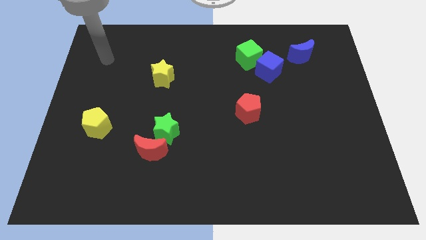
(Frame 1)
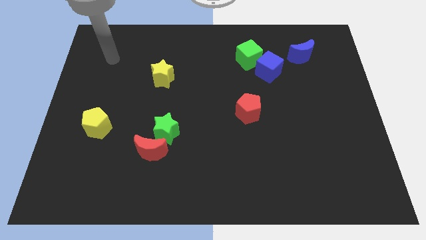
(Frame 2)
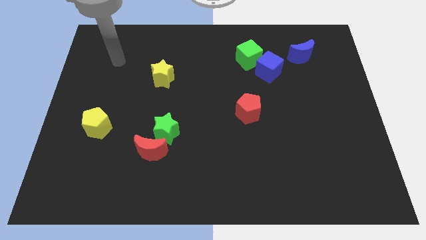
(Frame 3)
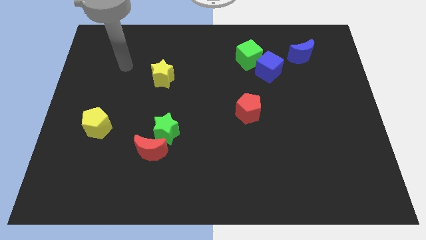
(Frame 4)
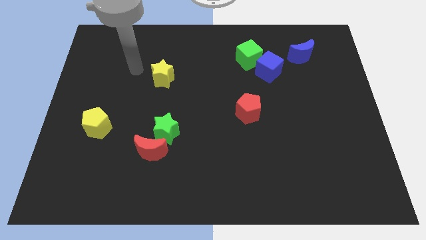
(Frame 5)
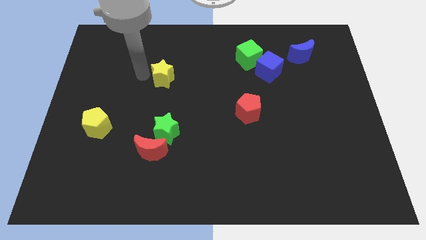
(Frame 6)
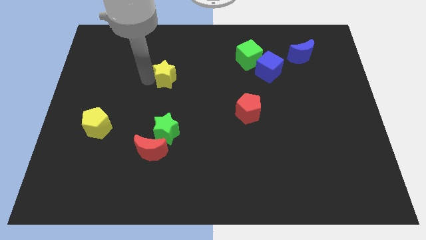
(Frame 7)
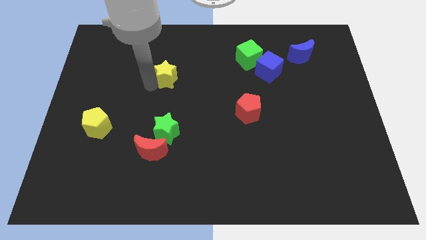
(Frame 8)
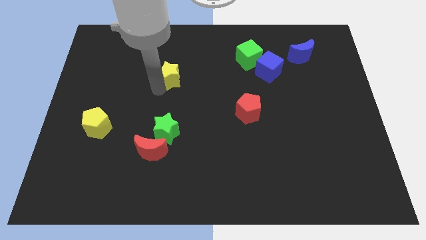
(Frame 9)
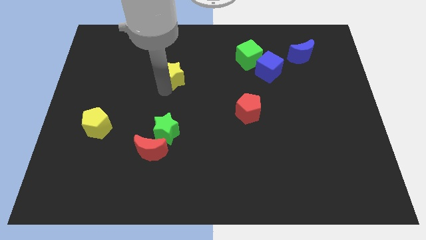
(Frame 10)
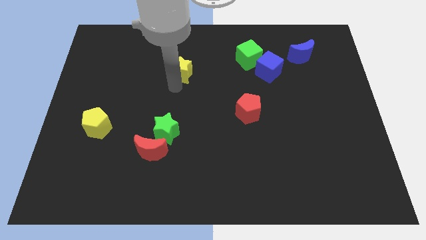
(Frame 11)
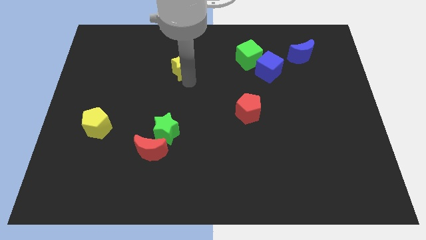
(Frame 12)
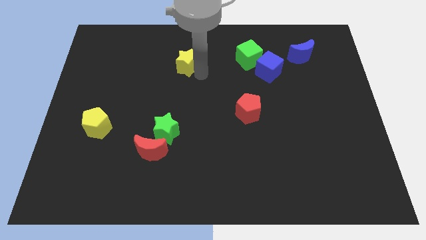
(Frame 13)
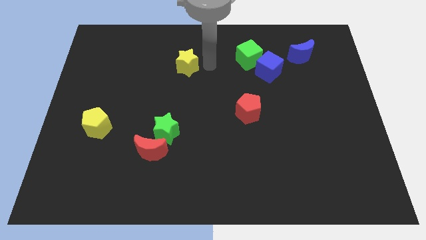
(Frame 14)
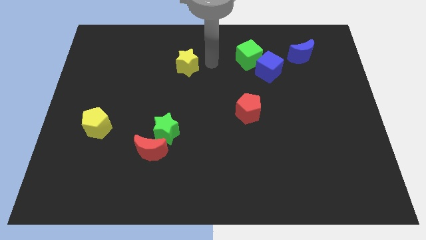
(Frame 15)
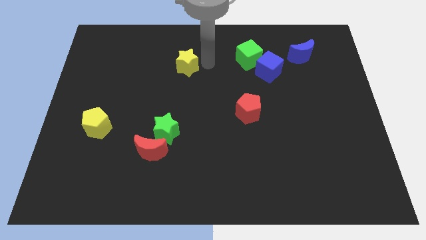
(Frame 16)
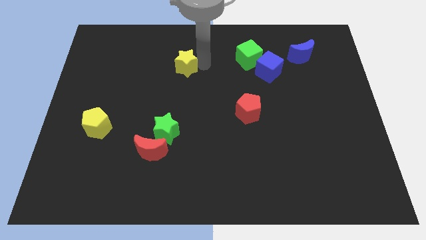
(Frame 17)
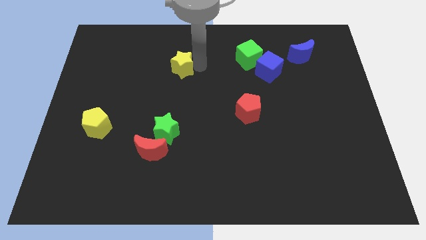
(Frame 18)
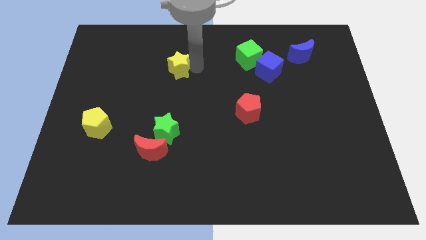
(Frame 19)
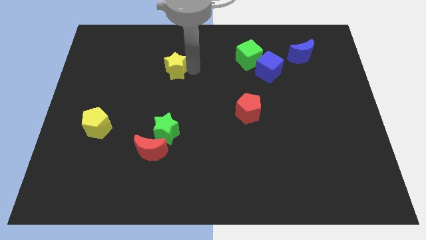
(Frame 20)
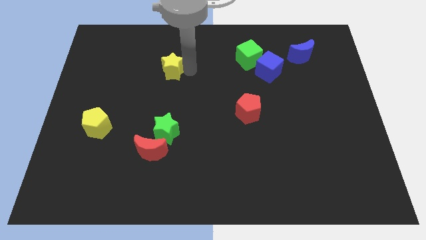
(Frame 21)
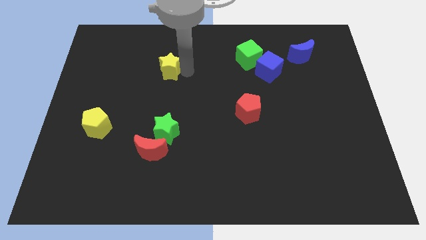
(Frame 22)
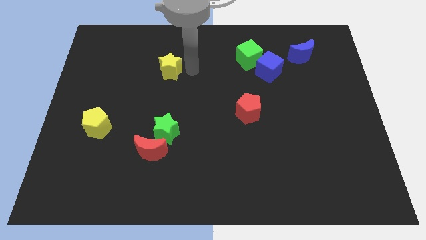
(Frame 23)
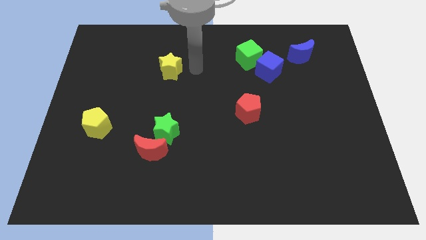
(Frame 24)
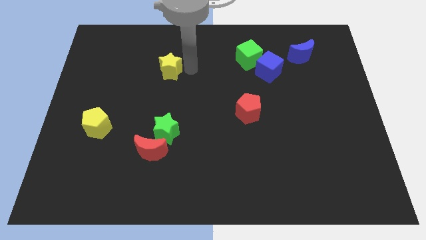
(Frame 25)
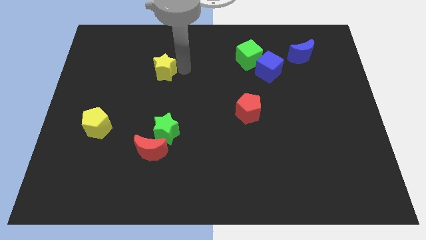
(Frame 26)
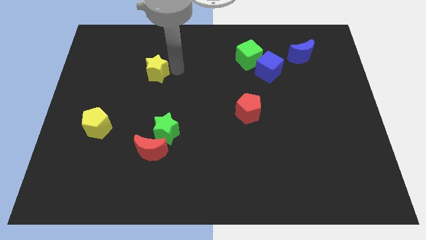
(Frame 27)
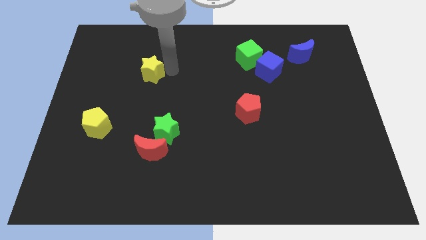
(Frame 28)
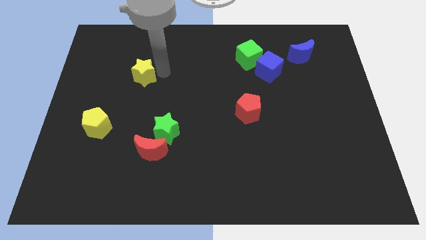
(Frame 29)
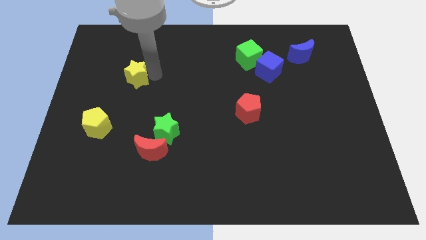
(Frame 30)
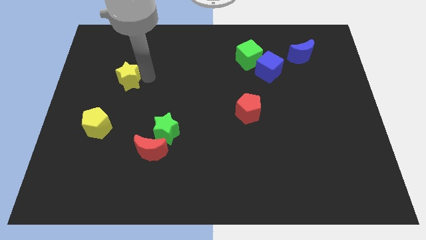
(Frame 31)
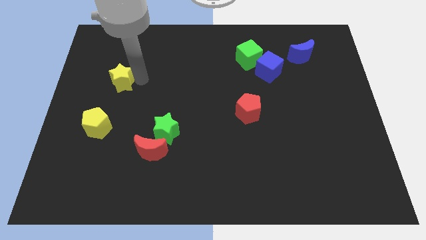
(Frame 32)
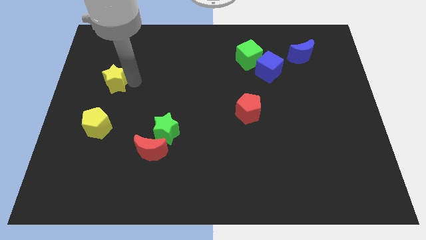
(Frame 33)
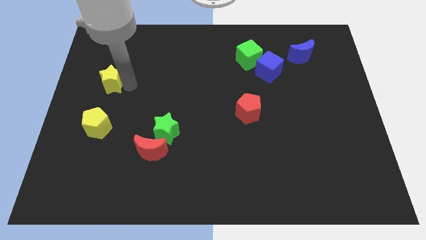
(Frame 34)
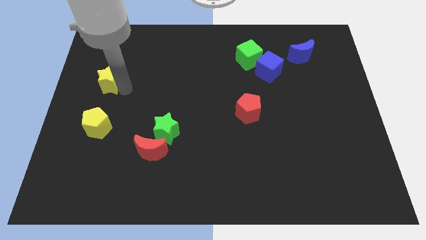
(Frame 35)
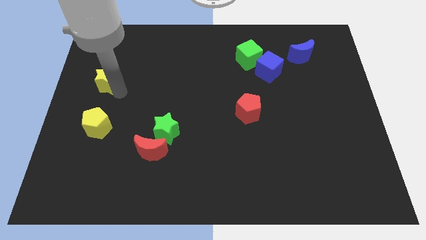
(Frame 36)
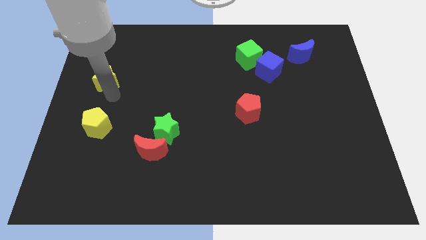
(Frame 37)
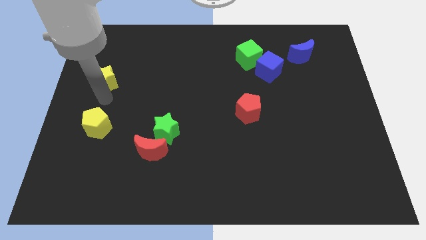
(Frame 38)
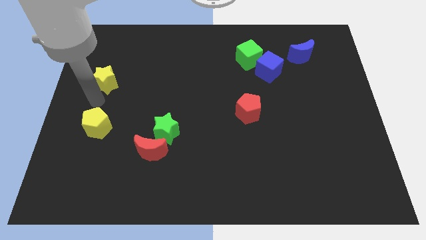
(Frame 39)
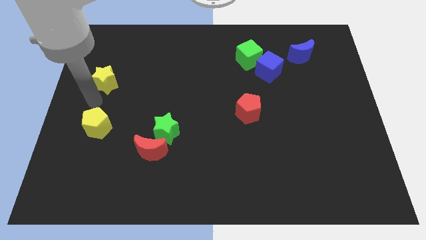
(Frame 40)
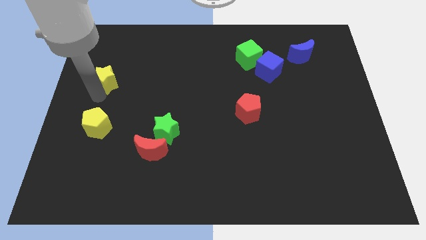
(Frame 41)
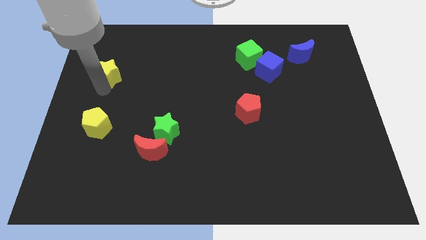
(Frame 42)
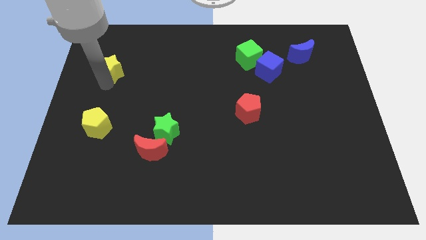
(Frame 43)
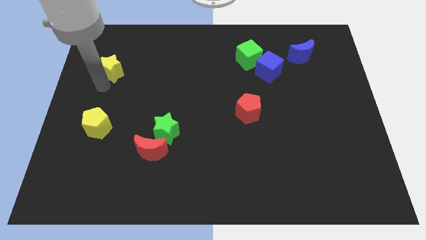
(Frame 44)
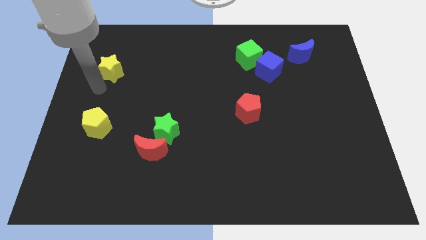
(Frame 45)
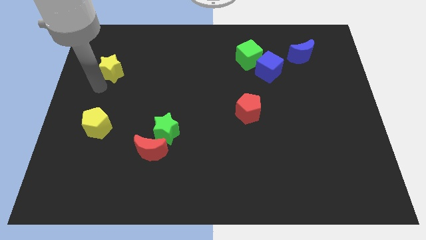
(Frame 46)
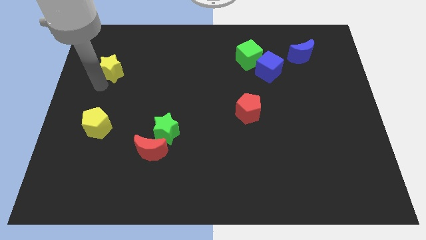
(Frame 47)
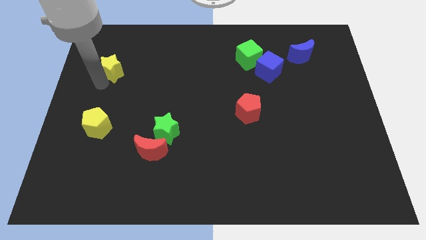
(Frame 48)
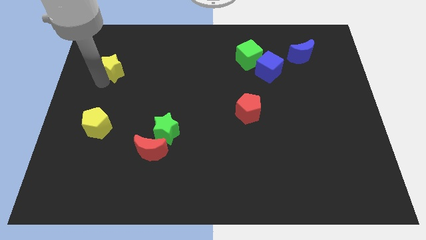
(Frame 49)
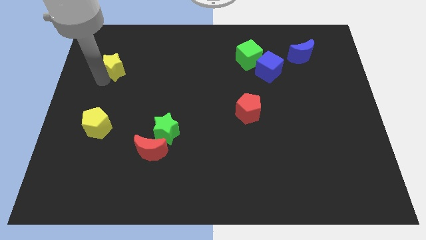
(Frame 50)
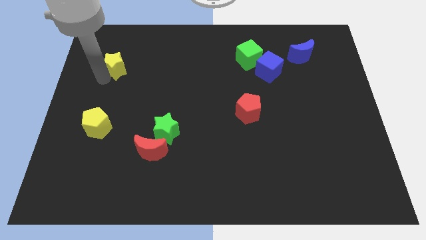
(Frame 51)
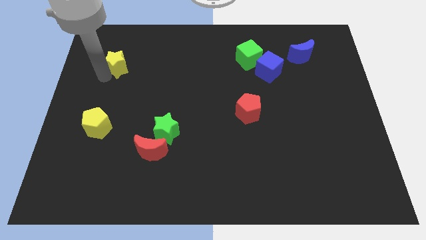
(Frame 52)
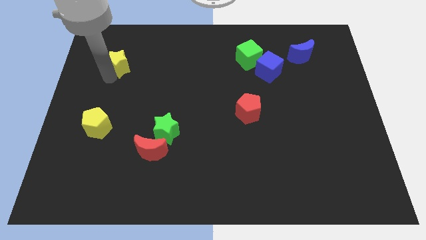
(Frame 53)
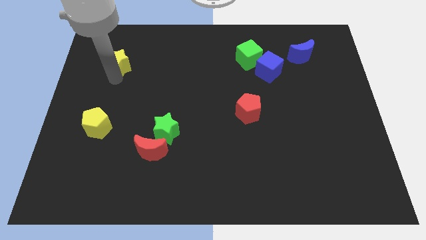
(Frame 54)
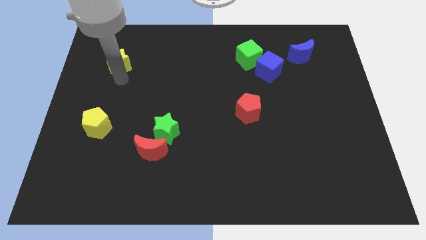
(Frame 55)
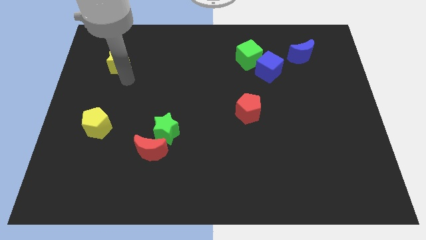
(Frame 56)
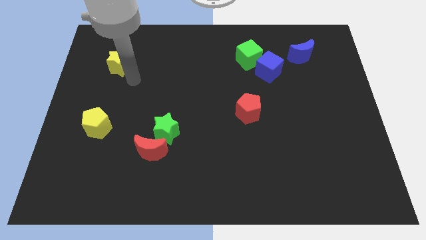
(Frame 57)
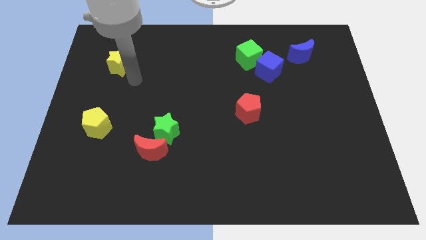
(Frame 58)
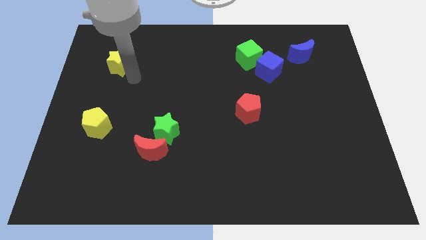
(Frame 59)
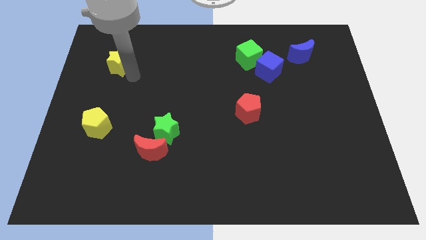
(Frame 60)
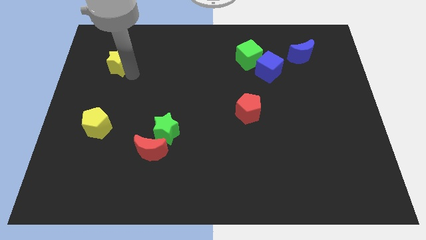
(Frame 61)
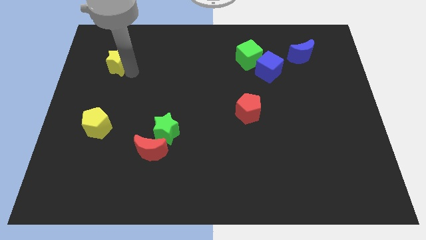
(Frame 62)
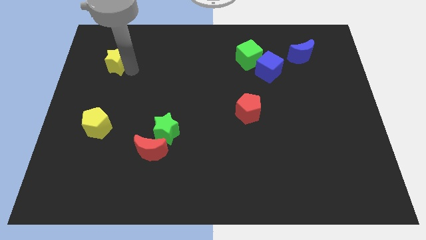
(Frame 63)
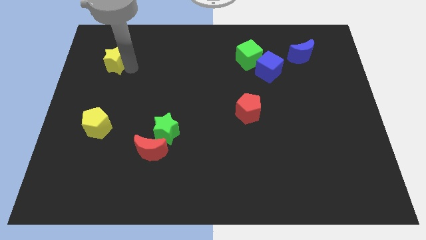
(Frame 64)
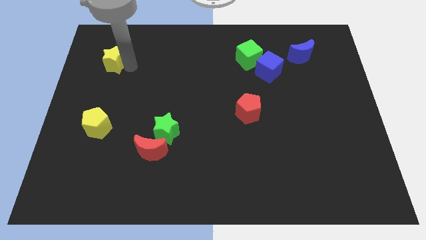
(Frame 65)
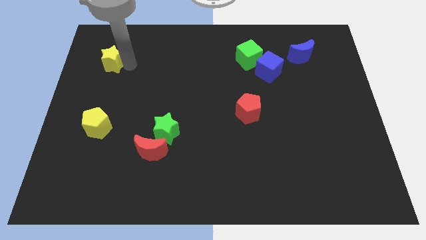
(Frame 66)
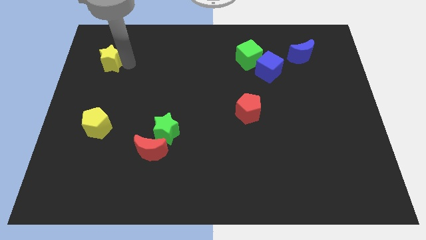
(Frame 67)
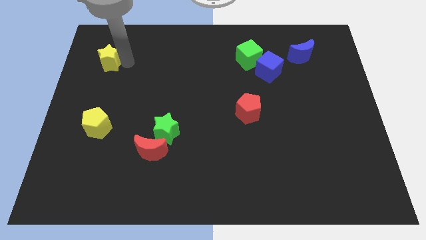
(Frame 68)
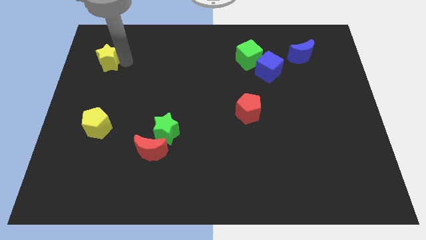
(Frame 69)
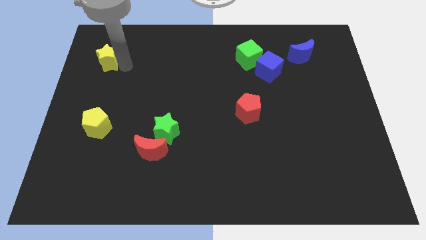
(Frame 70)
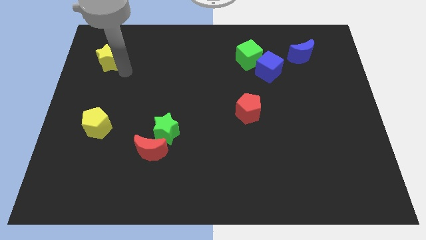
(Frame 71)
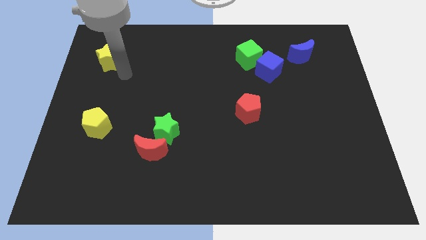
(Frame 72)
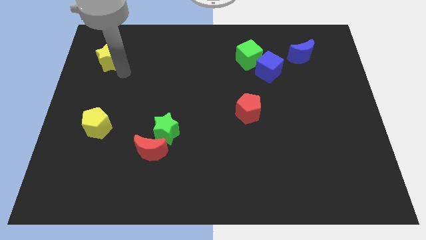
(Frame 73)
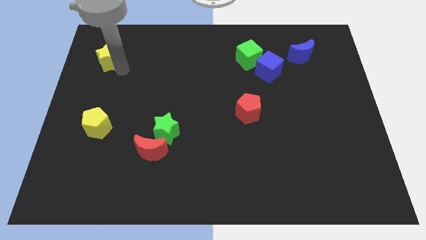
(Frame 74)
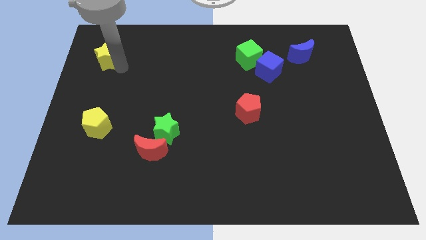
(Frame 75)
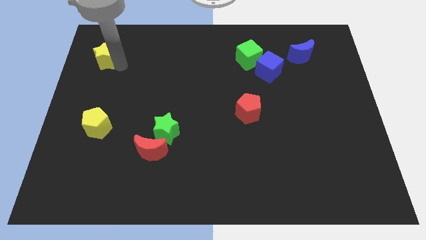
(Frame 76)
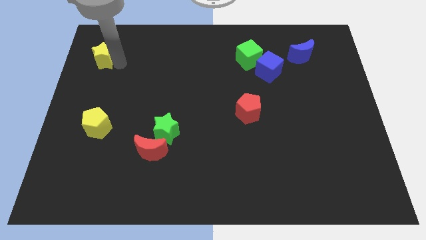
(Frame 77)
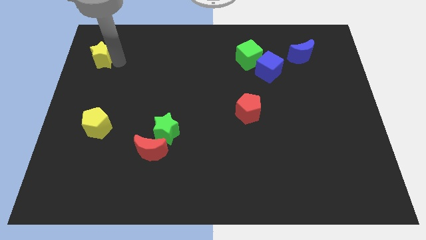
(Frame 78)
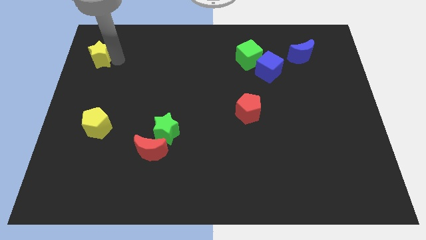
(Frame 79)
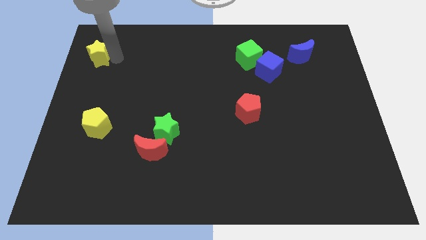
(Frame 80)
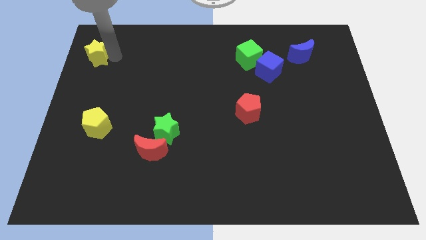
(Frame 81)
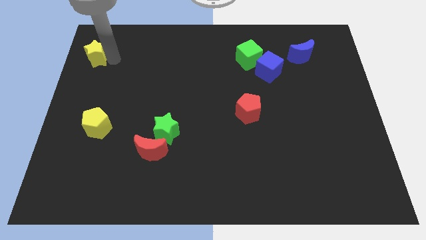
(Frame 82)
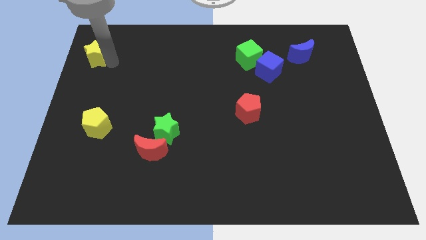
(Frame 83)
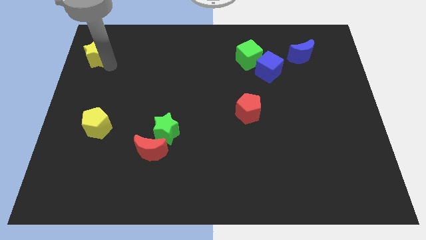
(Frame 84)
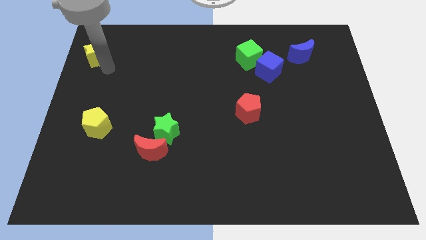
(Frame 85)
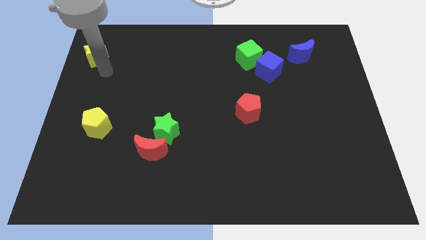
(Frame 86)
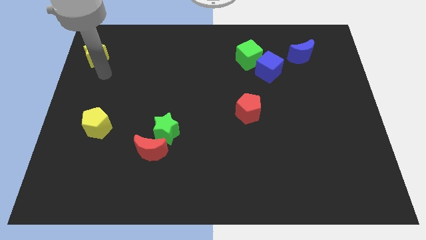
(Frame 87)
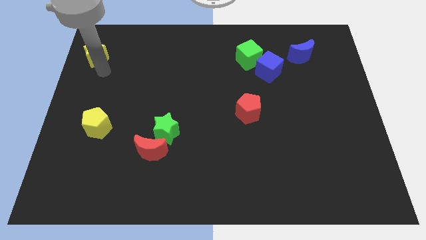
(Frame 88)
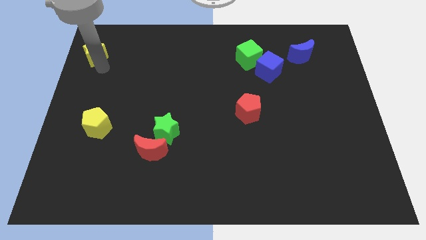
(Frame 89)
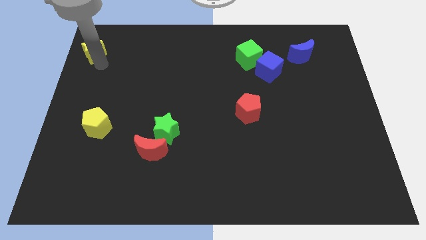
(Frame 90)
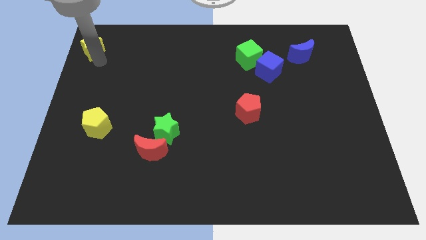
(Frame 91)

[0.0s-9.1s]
slide the yellow star to the upper left corner
